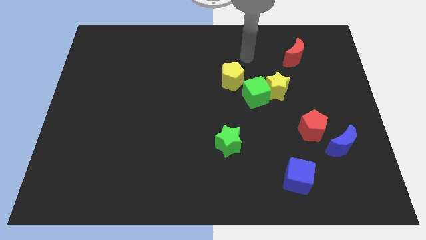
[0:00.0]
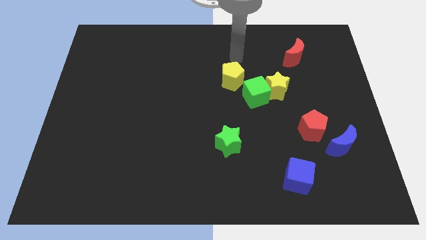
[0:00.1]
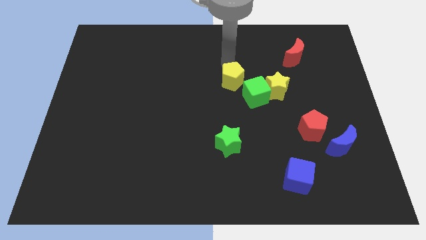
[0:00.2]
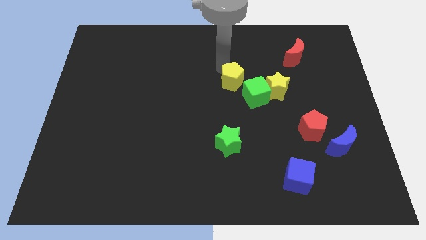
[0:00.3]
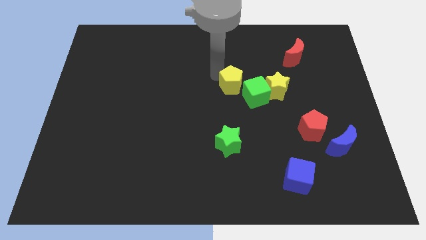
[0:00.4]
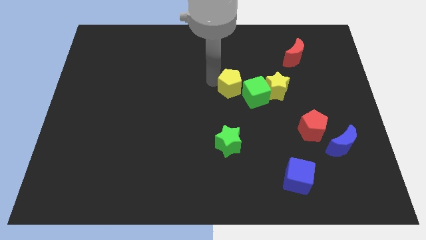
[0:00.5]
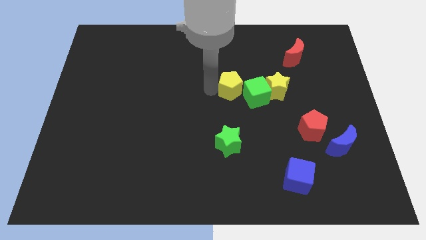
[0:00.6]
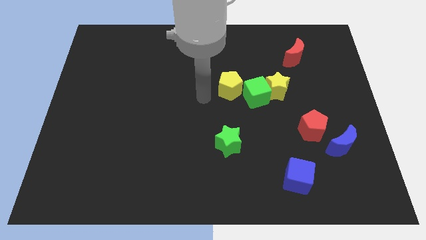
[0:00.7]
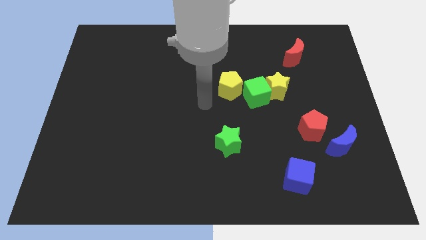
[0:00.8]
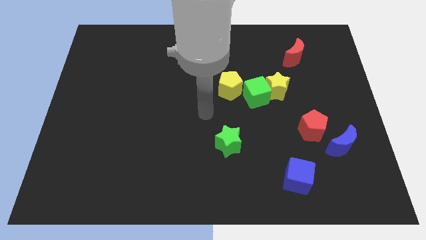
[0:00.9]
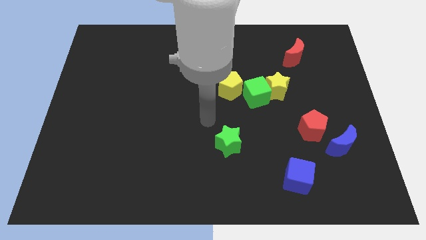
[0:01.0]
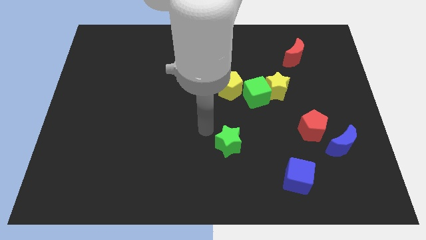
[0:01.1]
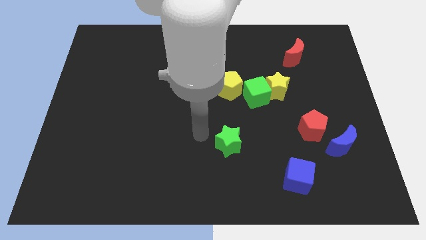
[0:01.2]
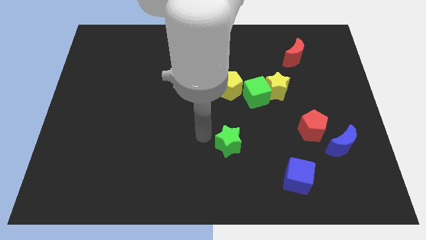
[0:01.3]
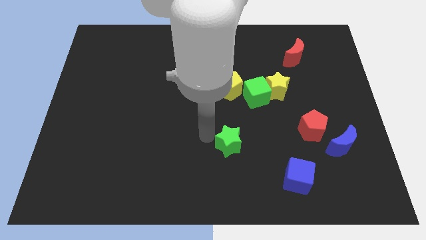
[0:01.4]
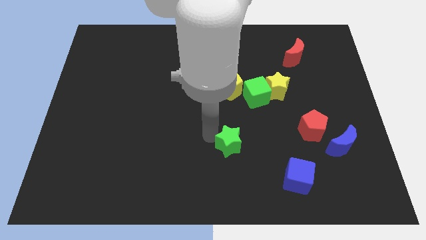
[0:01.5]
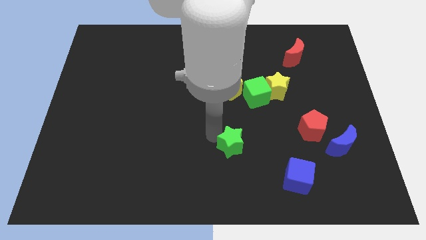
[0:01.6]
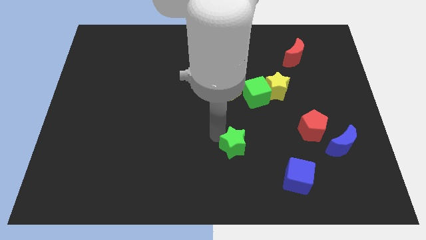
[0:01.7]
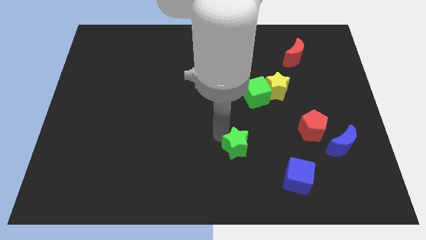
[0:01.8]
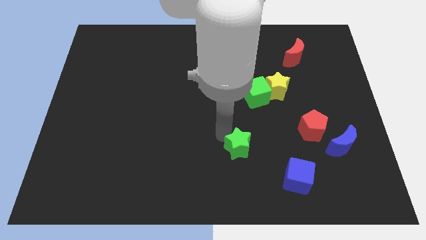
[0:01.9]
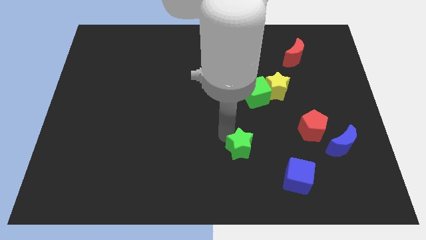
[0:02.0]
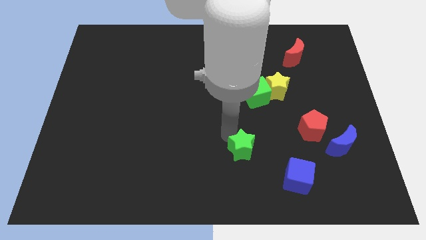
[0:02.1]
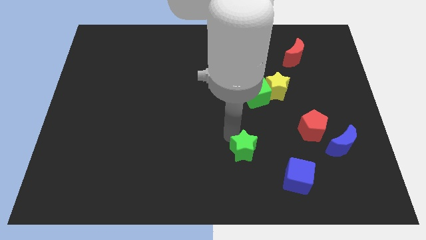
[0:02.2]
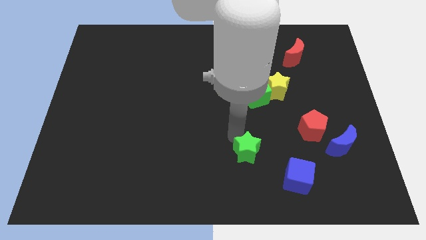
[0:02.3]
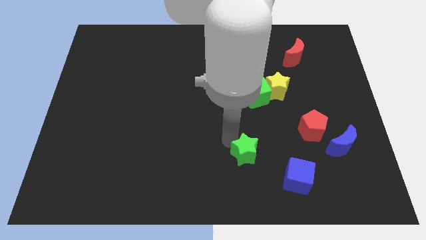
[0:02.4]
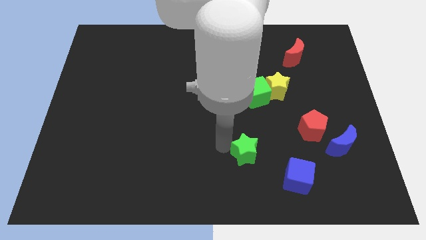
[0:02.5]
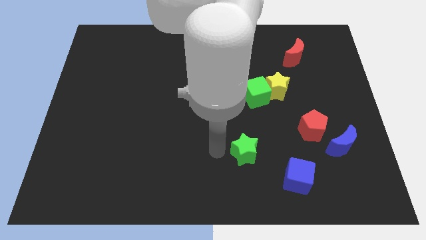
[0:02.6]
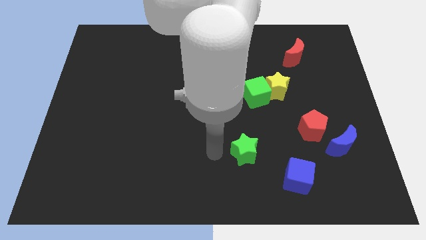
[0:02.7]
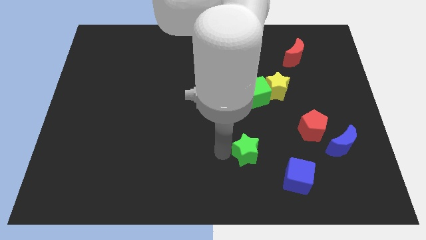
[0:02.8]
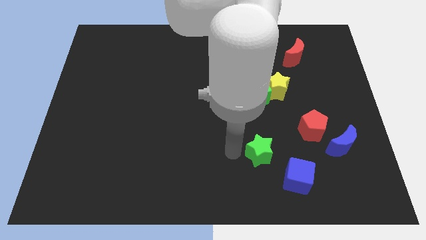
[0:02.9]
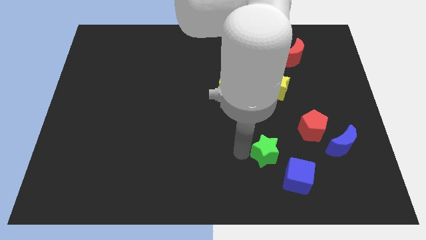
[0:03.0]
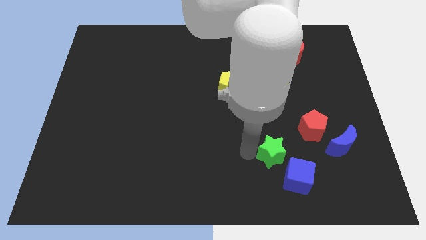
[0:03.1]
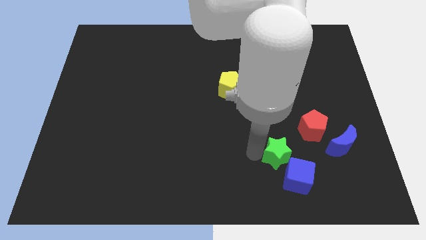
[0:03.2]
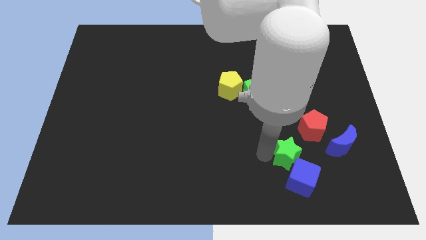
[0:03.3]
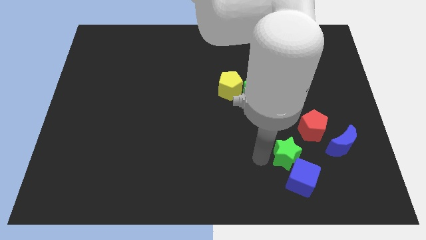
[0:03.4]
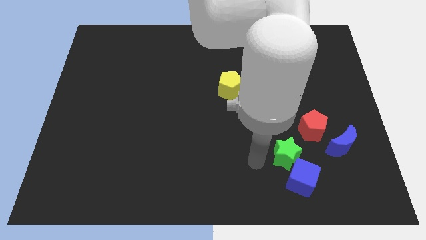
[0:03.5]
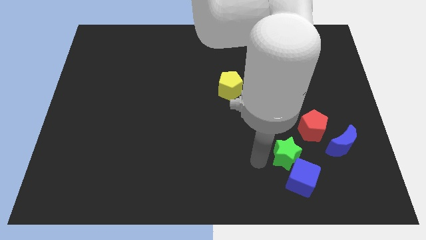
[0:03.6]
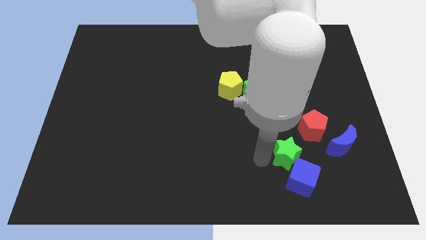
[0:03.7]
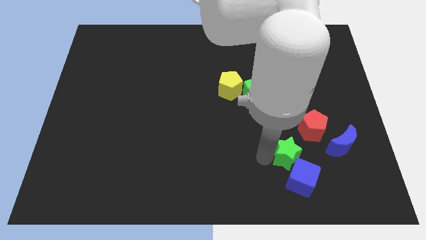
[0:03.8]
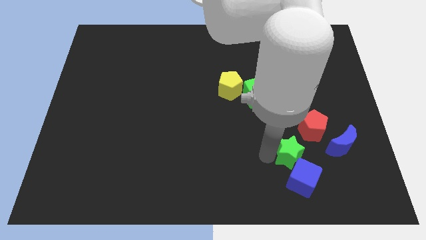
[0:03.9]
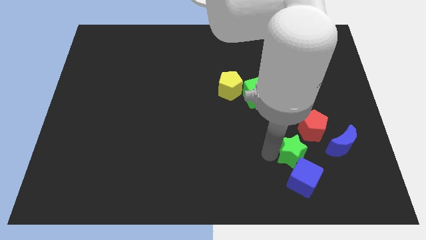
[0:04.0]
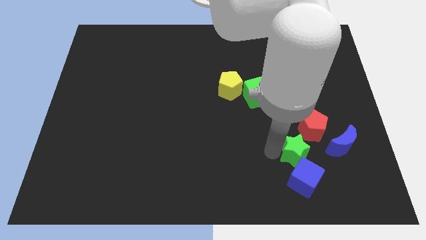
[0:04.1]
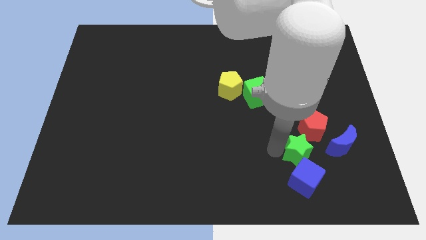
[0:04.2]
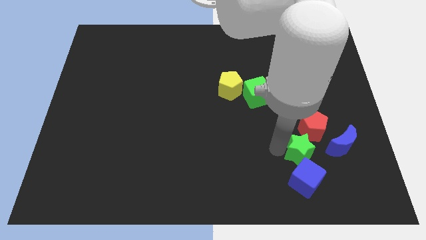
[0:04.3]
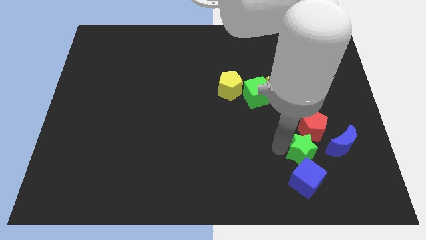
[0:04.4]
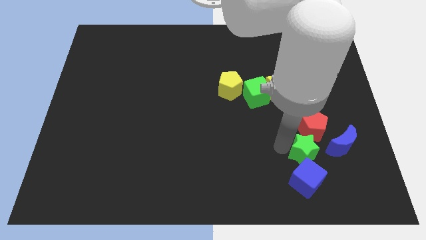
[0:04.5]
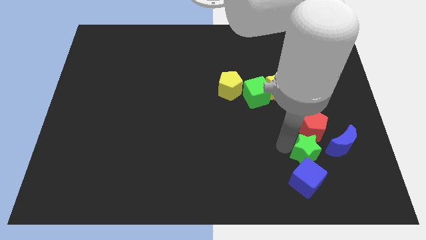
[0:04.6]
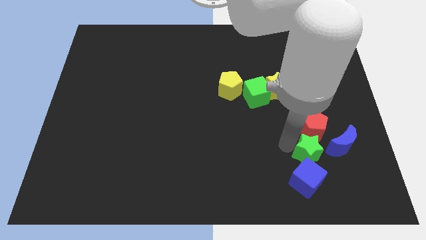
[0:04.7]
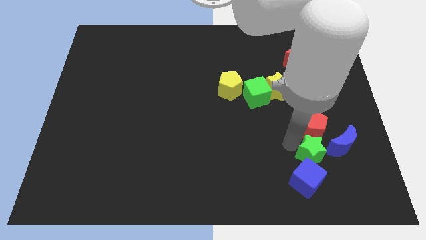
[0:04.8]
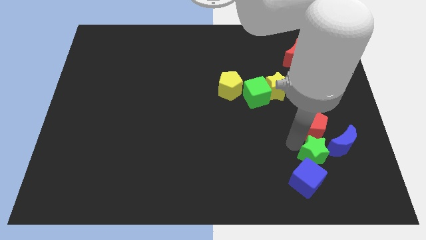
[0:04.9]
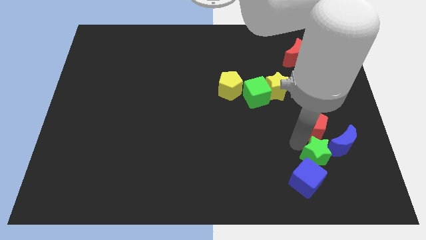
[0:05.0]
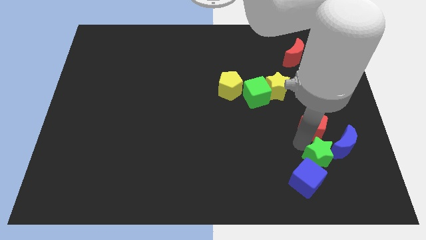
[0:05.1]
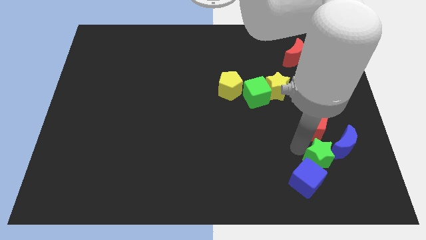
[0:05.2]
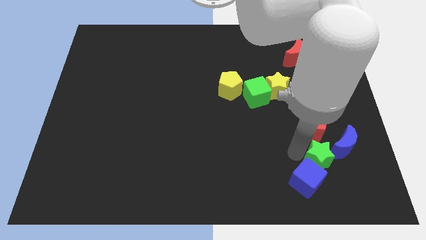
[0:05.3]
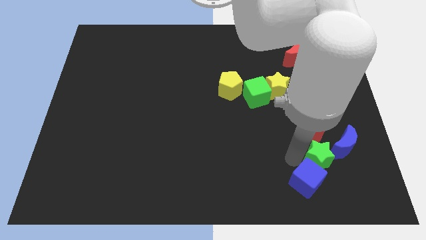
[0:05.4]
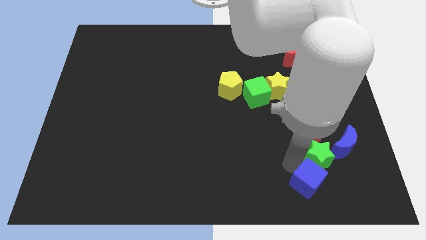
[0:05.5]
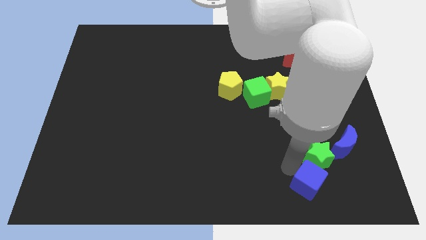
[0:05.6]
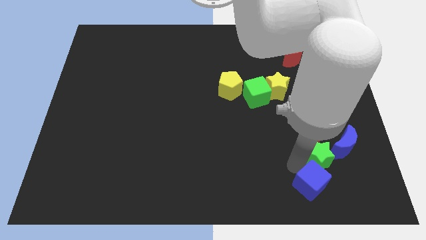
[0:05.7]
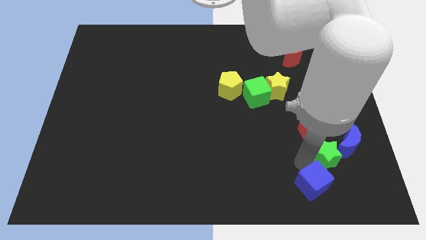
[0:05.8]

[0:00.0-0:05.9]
slide the green star next to the blue moon

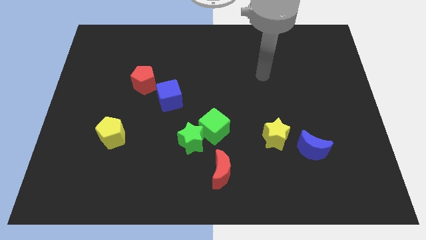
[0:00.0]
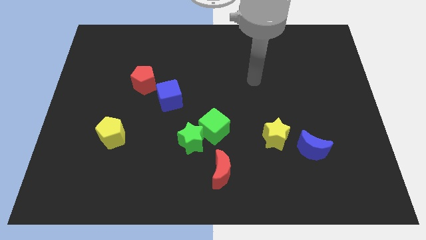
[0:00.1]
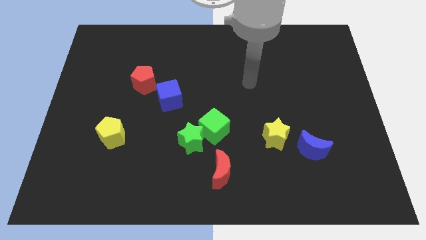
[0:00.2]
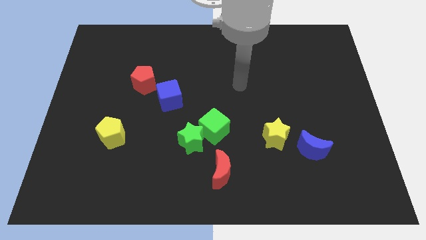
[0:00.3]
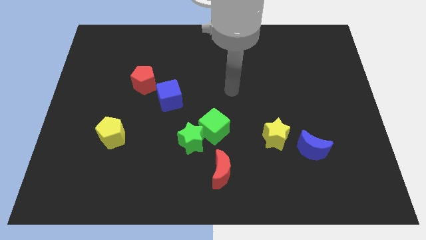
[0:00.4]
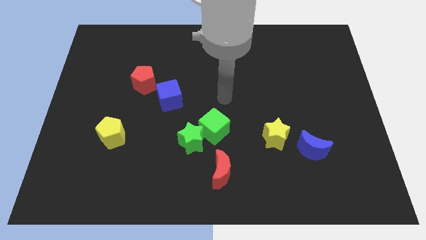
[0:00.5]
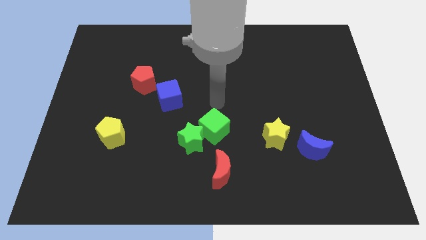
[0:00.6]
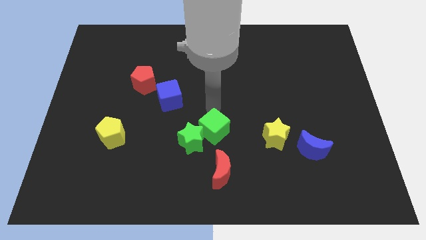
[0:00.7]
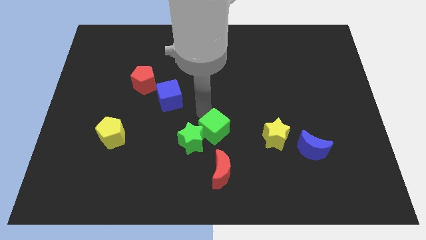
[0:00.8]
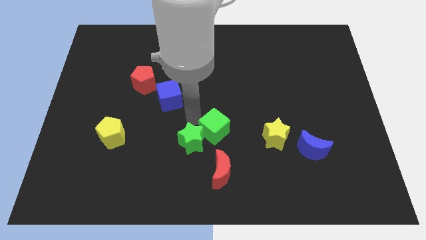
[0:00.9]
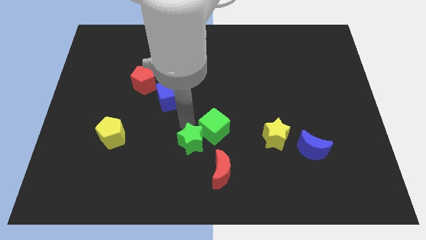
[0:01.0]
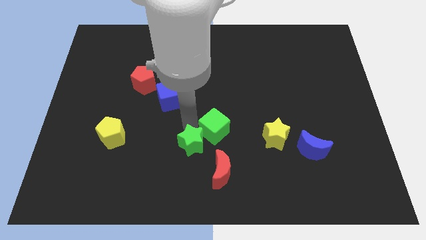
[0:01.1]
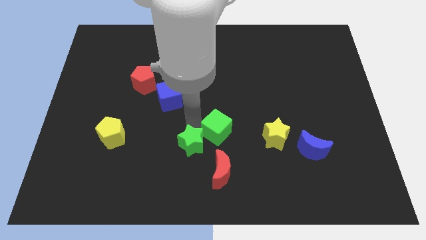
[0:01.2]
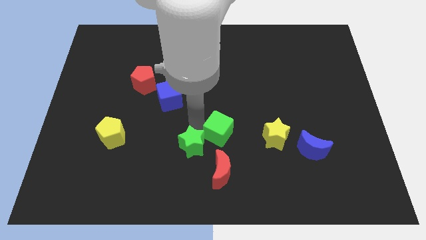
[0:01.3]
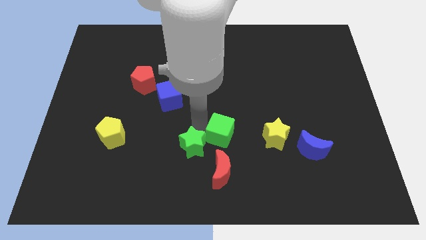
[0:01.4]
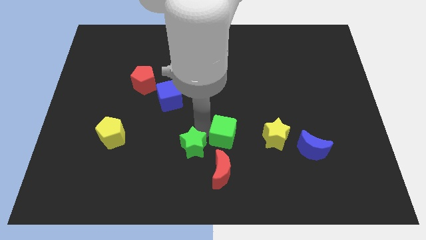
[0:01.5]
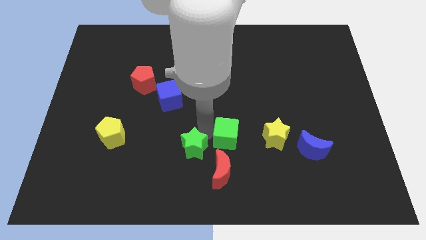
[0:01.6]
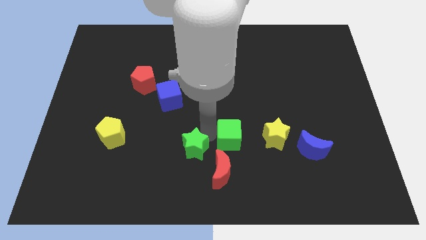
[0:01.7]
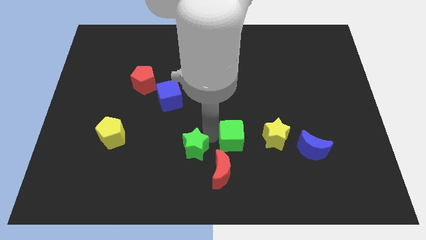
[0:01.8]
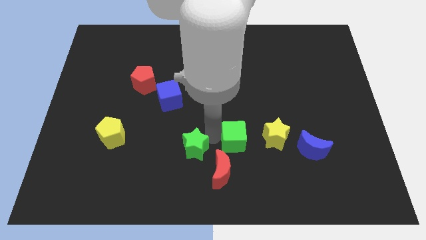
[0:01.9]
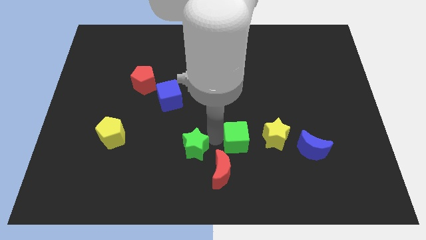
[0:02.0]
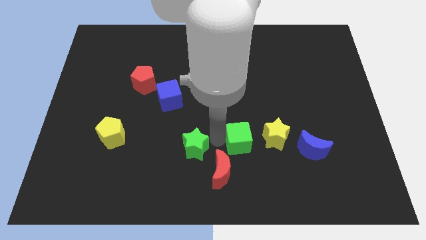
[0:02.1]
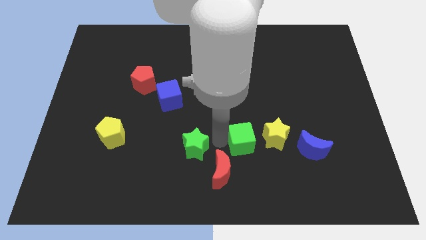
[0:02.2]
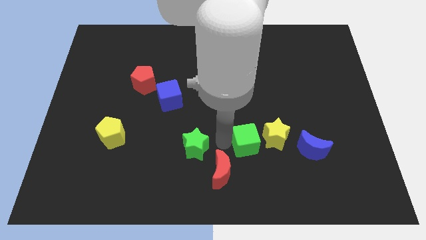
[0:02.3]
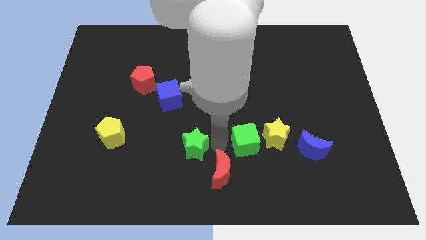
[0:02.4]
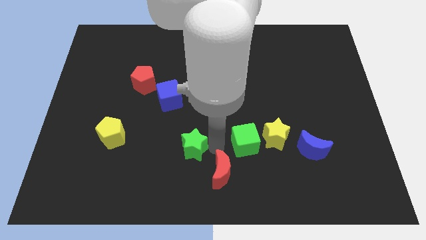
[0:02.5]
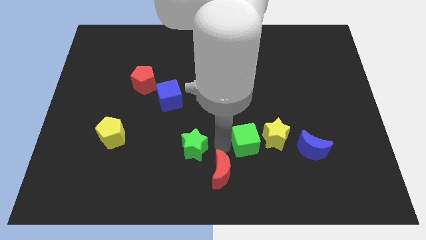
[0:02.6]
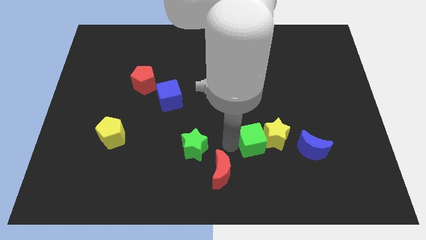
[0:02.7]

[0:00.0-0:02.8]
push the green cube close to the yellow star
